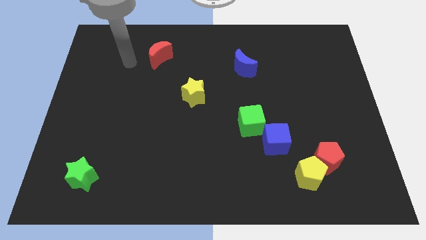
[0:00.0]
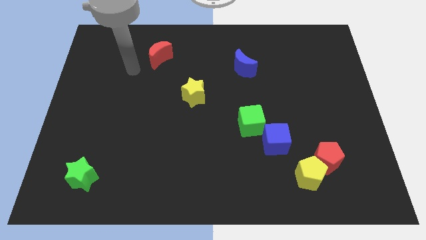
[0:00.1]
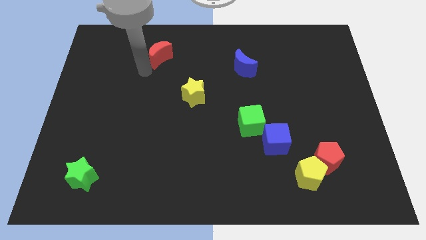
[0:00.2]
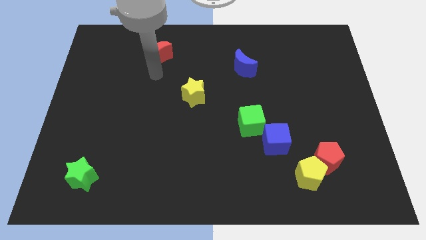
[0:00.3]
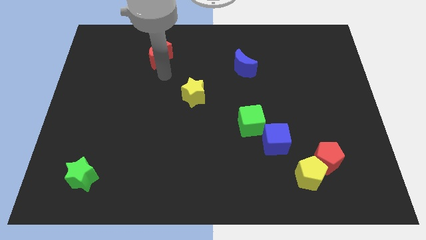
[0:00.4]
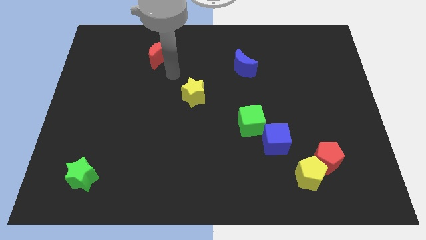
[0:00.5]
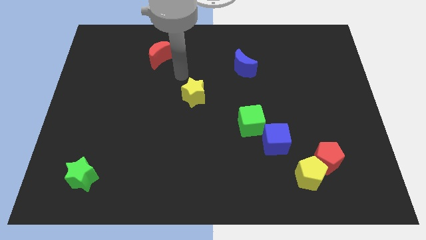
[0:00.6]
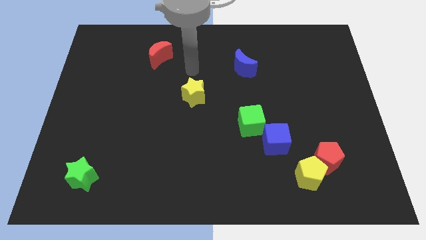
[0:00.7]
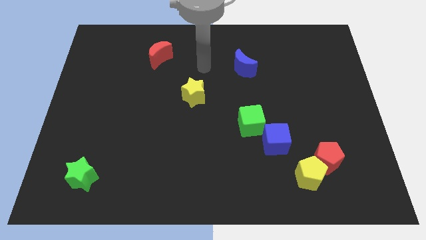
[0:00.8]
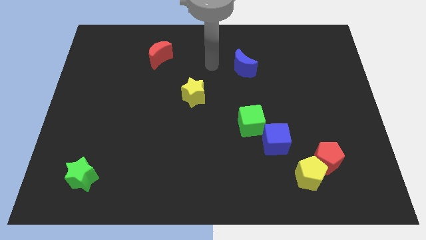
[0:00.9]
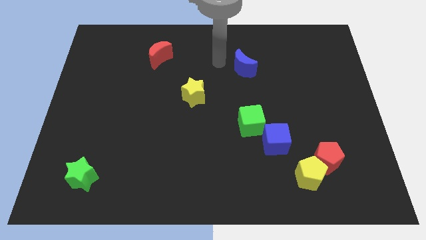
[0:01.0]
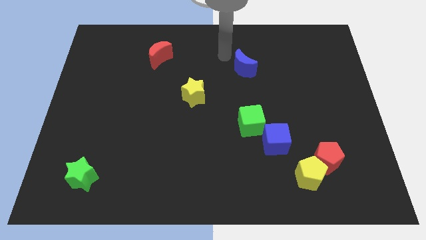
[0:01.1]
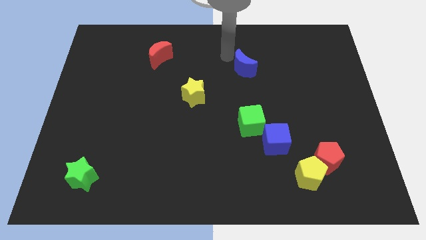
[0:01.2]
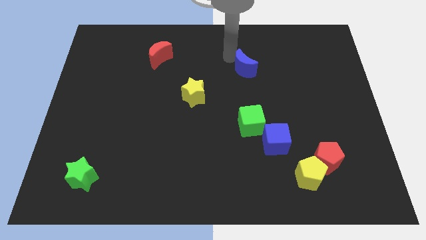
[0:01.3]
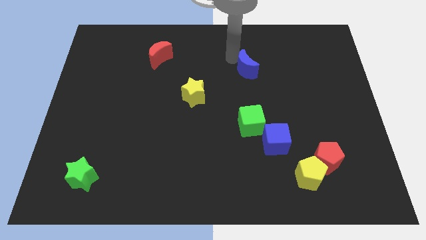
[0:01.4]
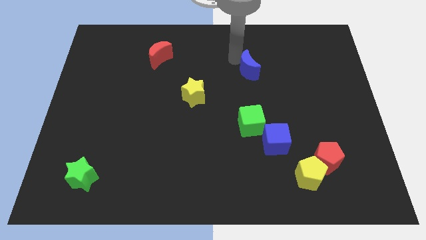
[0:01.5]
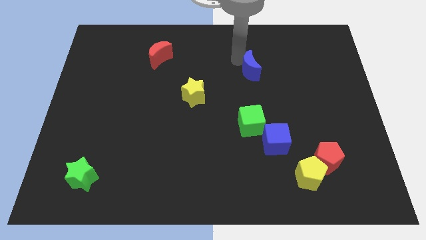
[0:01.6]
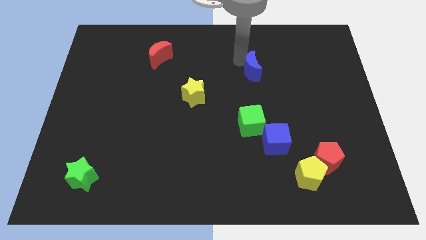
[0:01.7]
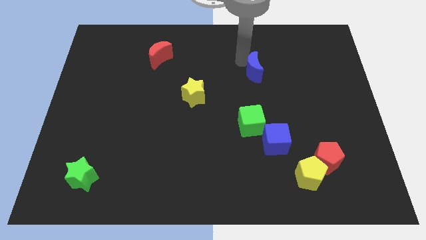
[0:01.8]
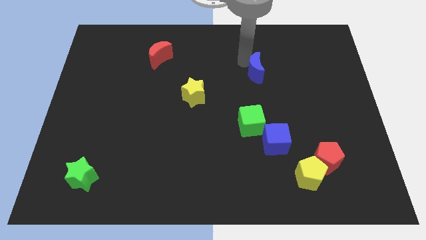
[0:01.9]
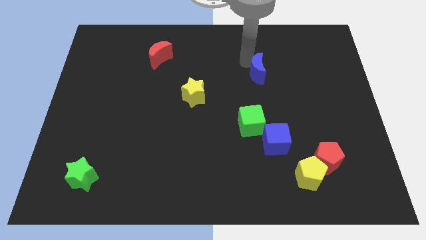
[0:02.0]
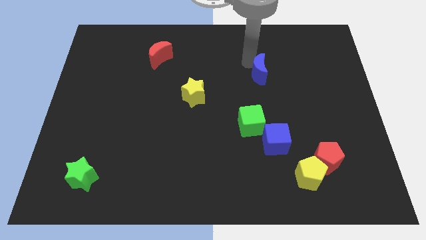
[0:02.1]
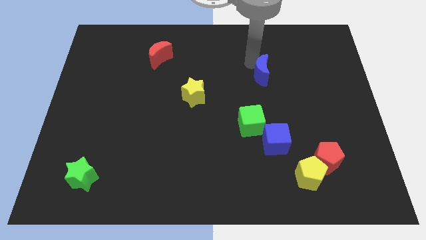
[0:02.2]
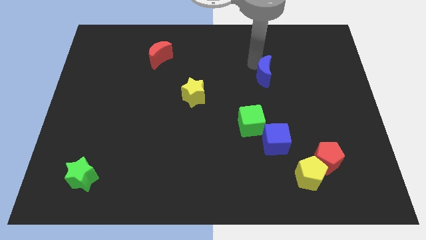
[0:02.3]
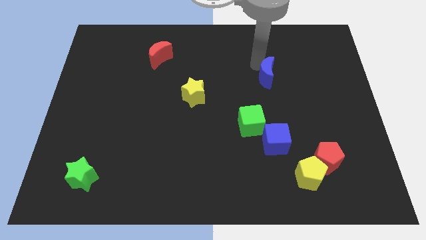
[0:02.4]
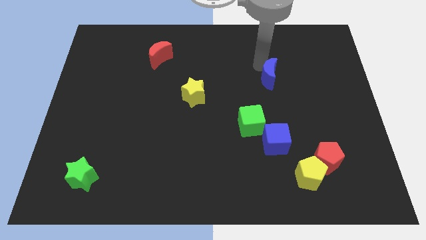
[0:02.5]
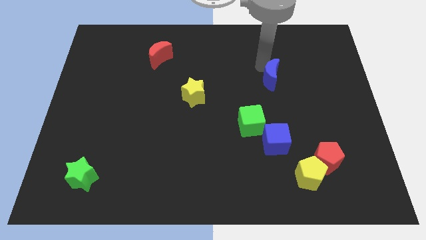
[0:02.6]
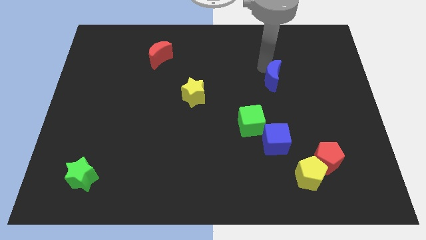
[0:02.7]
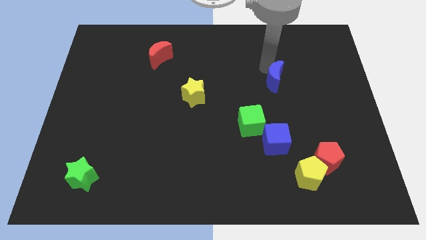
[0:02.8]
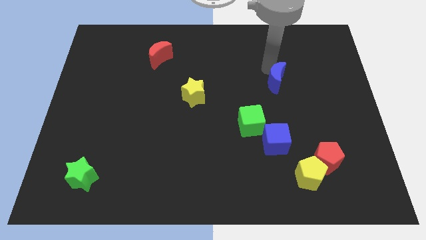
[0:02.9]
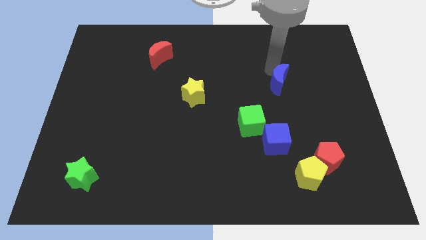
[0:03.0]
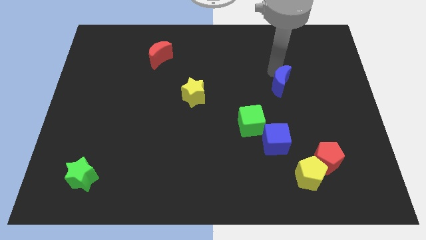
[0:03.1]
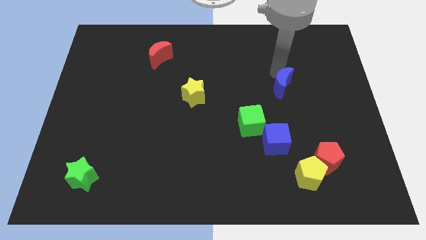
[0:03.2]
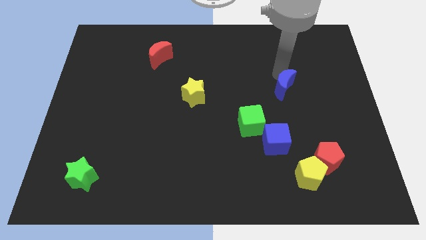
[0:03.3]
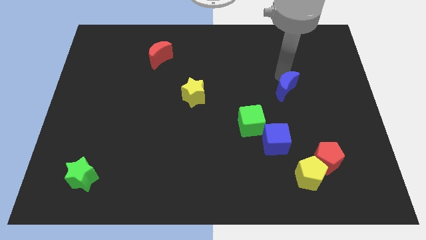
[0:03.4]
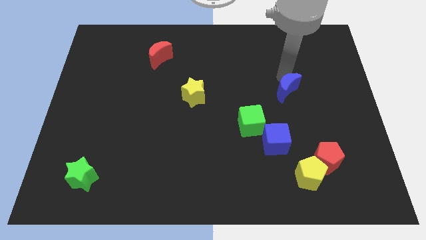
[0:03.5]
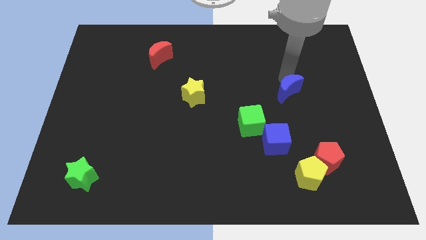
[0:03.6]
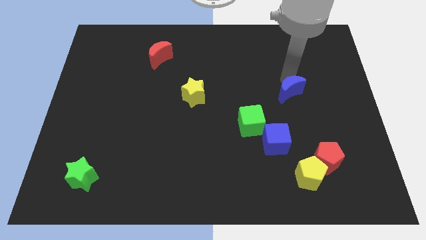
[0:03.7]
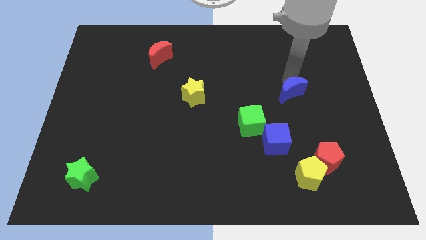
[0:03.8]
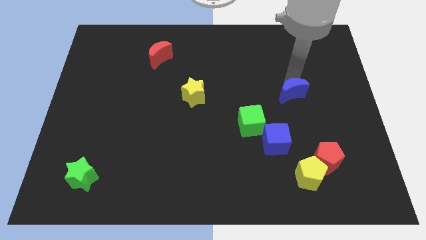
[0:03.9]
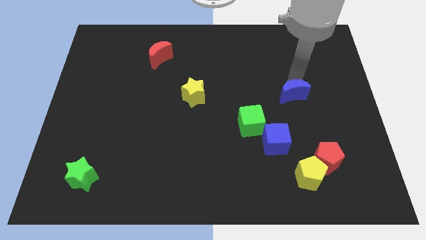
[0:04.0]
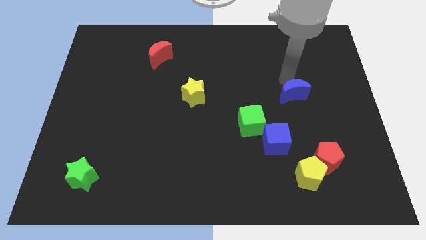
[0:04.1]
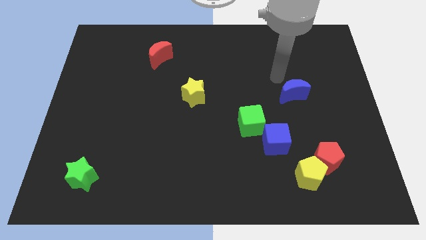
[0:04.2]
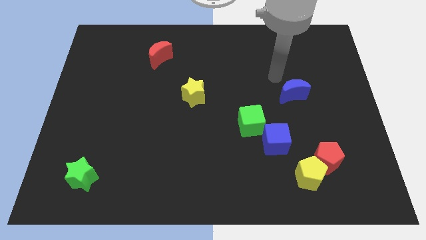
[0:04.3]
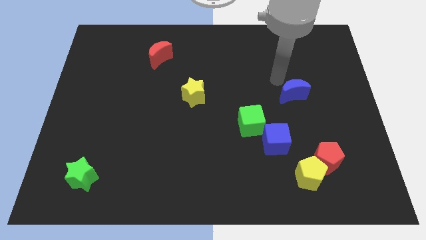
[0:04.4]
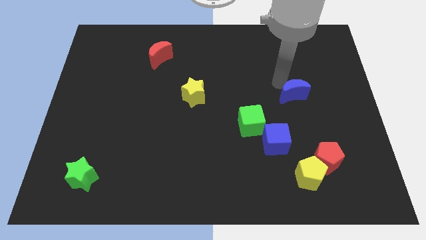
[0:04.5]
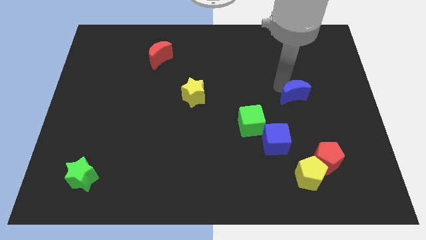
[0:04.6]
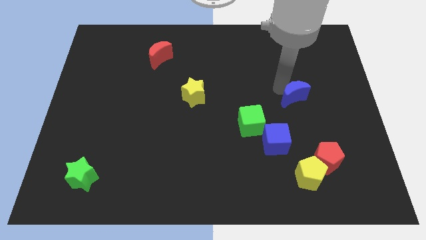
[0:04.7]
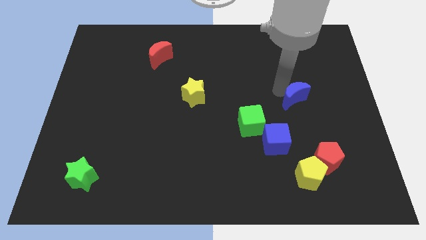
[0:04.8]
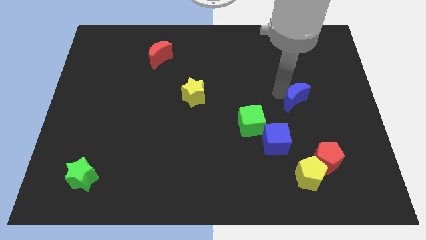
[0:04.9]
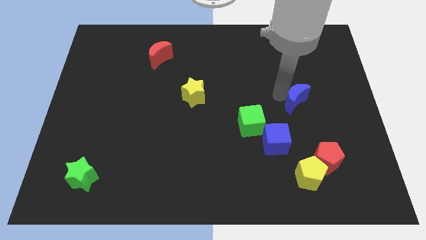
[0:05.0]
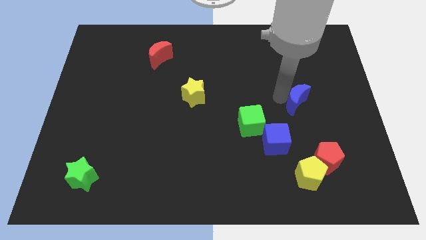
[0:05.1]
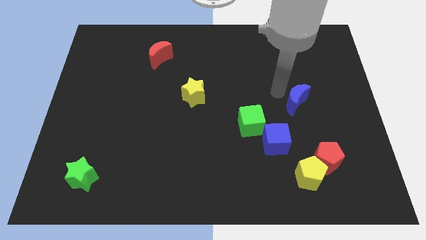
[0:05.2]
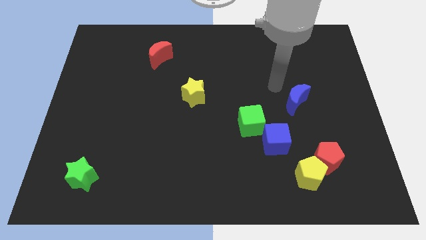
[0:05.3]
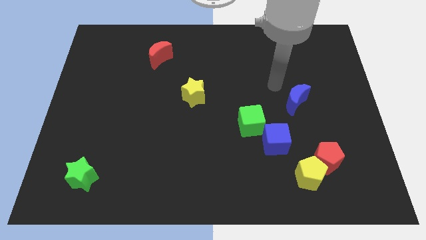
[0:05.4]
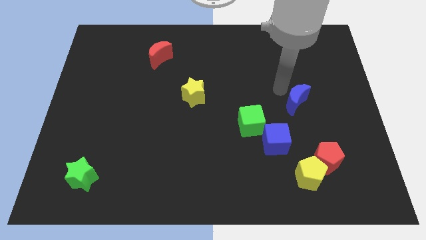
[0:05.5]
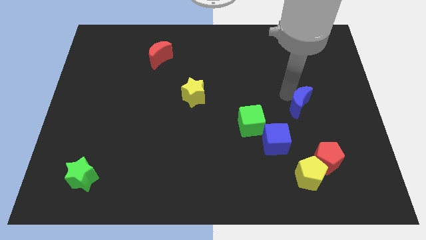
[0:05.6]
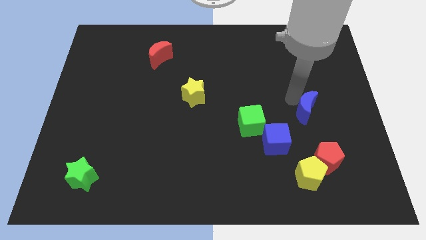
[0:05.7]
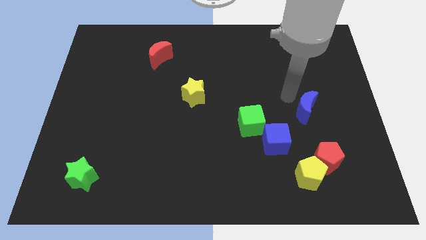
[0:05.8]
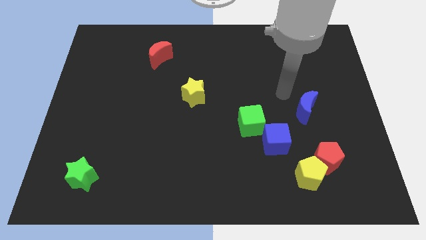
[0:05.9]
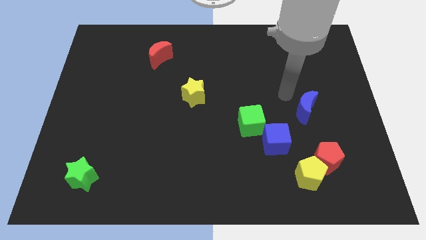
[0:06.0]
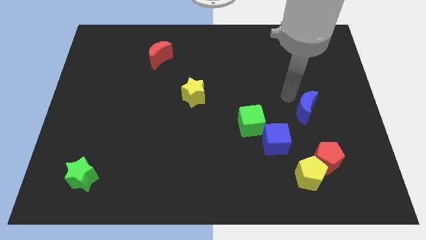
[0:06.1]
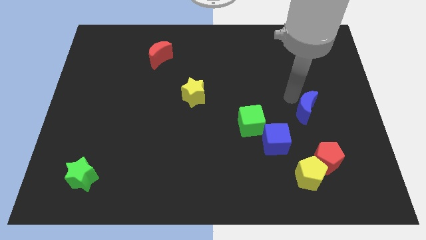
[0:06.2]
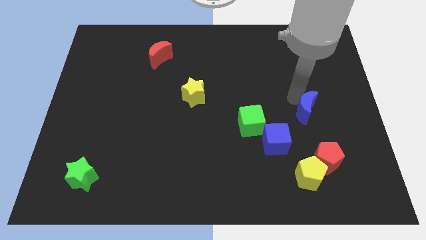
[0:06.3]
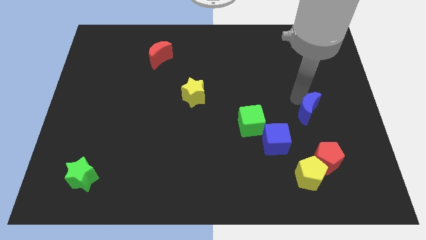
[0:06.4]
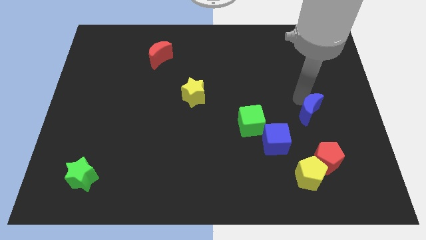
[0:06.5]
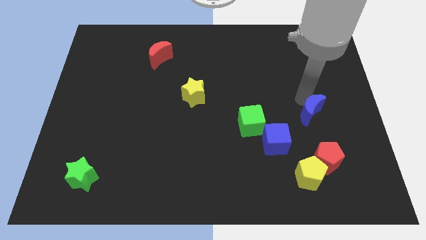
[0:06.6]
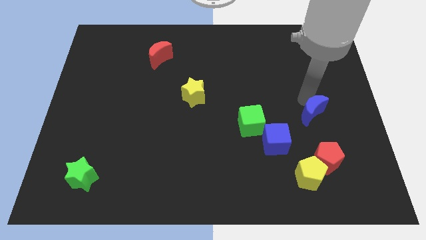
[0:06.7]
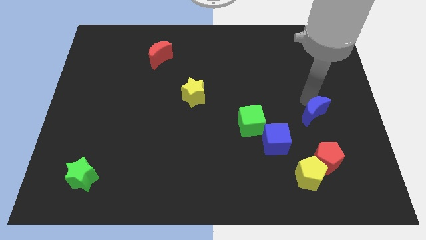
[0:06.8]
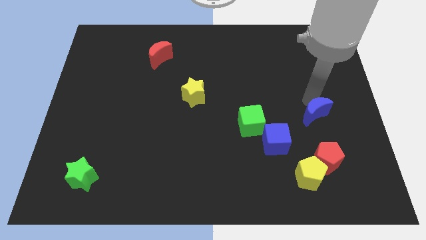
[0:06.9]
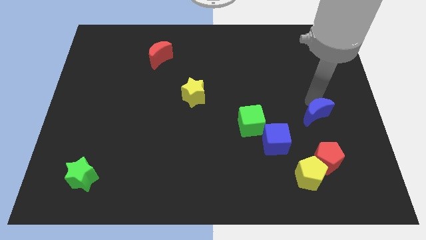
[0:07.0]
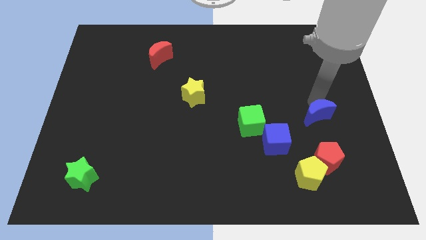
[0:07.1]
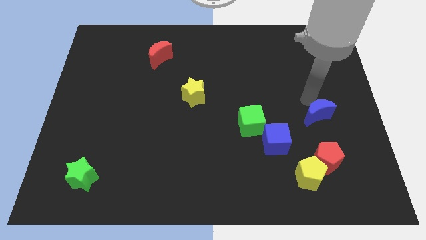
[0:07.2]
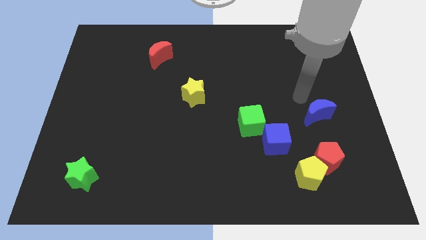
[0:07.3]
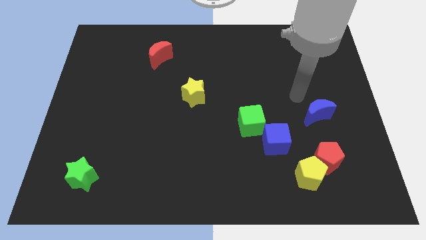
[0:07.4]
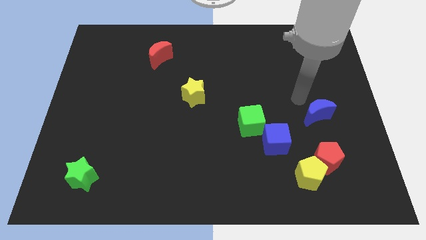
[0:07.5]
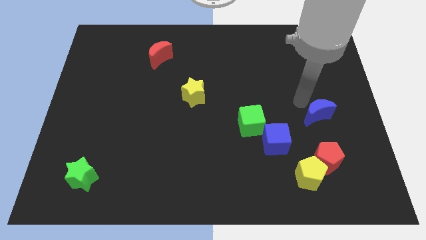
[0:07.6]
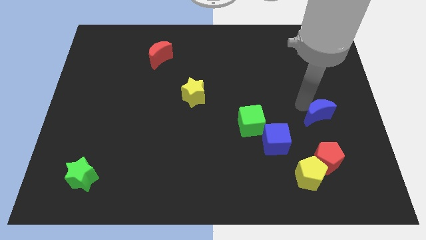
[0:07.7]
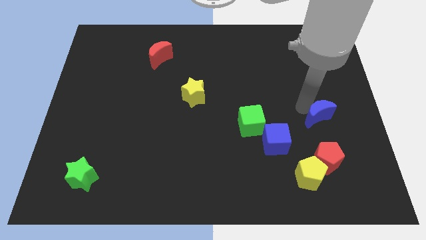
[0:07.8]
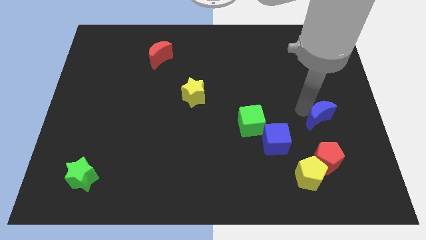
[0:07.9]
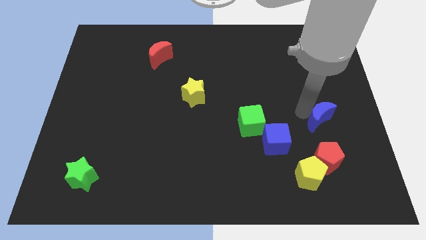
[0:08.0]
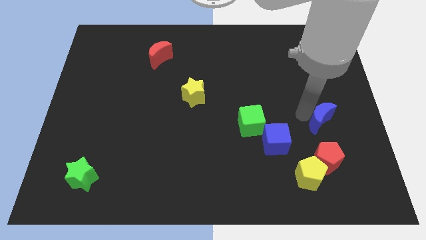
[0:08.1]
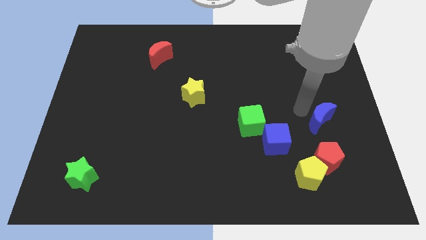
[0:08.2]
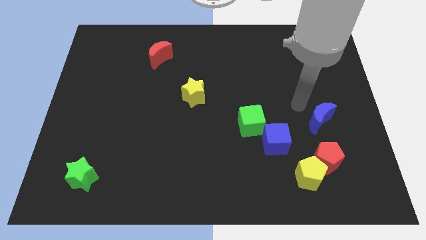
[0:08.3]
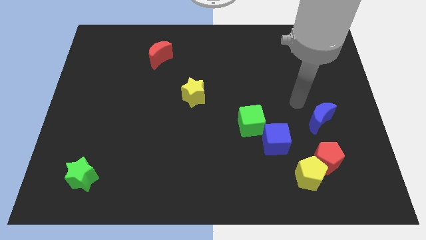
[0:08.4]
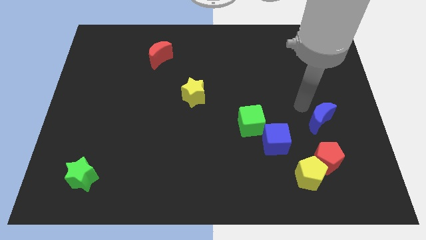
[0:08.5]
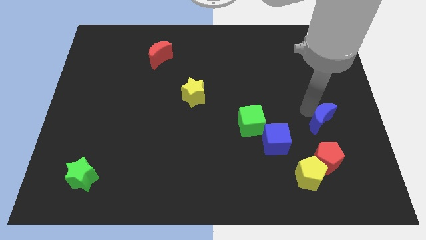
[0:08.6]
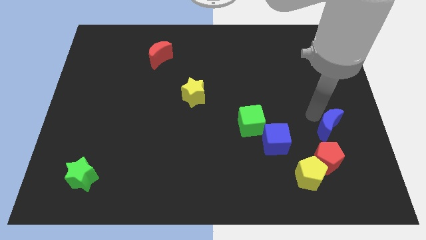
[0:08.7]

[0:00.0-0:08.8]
push the blue moon to the top right side of the red pentagon
